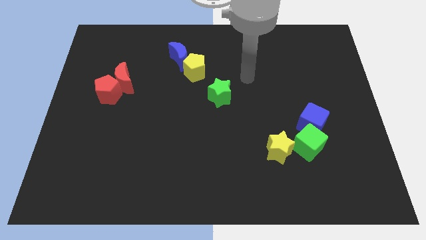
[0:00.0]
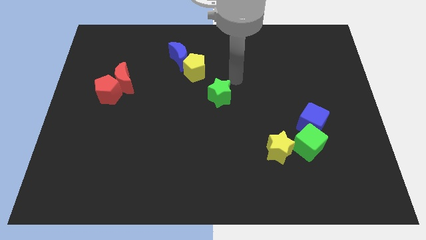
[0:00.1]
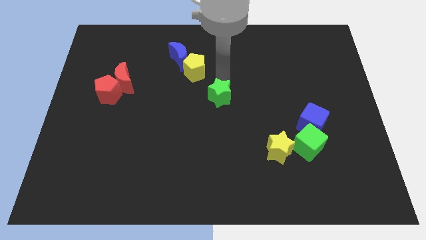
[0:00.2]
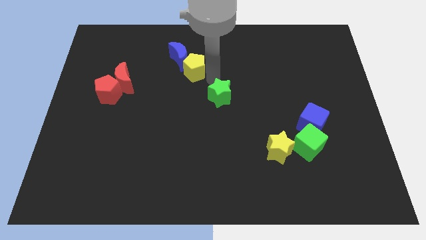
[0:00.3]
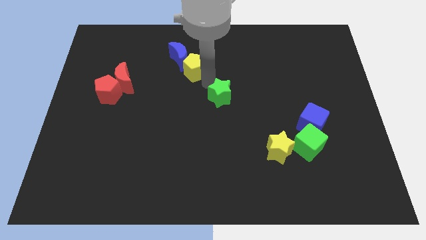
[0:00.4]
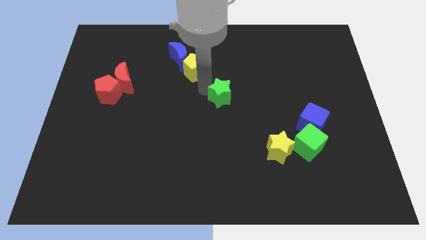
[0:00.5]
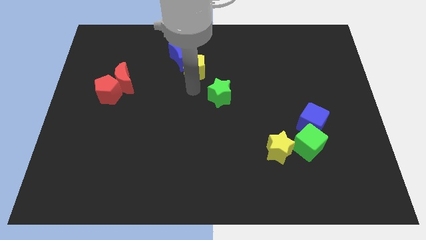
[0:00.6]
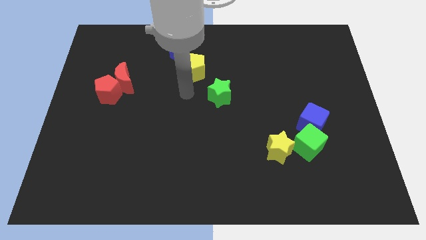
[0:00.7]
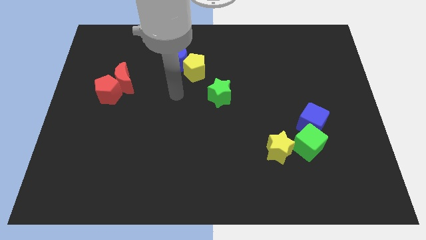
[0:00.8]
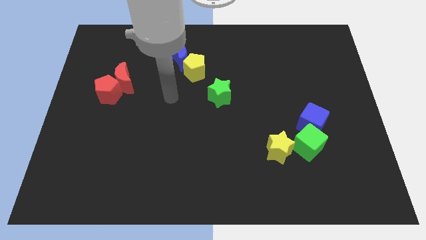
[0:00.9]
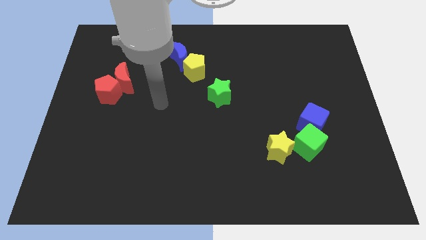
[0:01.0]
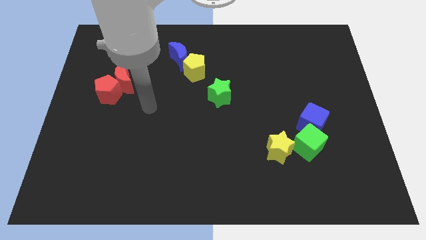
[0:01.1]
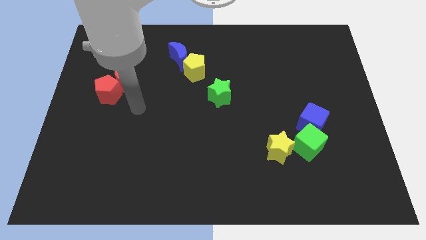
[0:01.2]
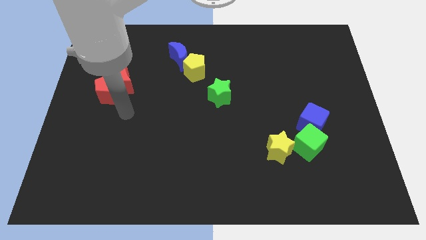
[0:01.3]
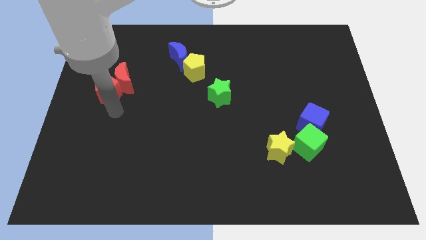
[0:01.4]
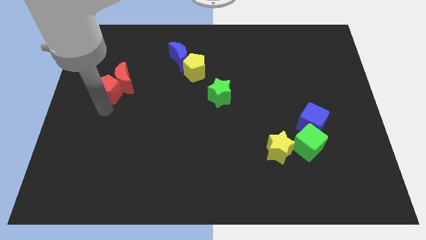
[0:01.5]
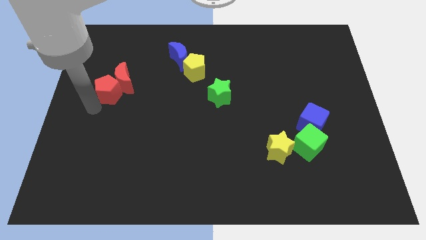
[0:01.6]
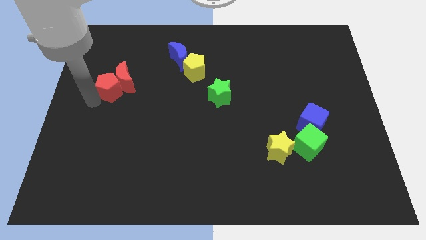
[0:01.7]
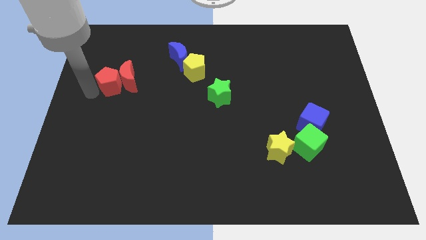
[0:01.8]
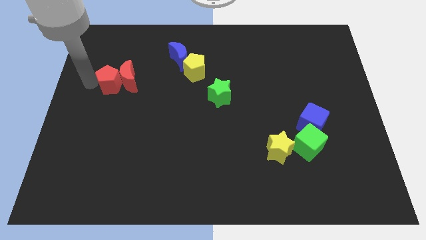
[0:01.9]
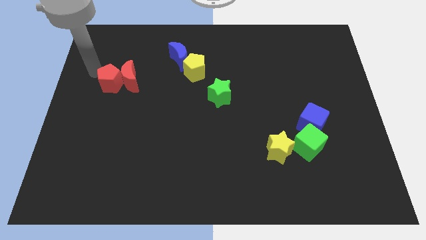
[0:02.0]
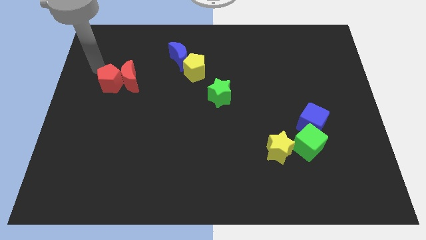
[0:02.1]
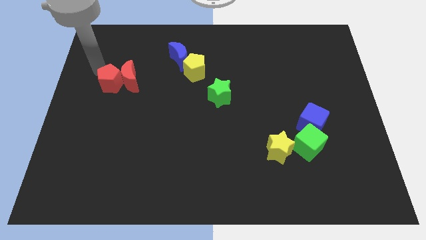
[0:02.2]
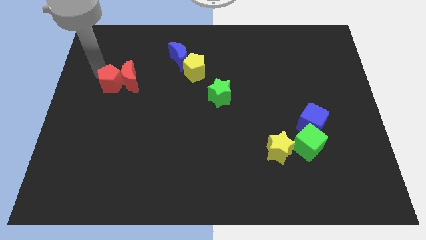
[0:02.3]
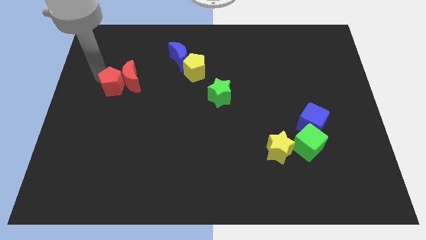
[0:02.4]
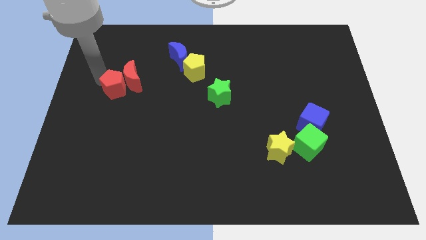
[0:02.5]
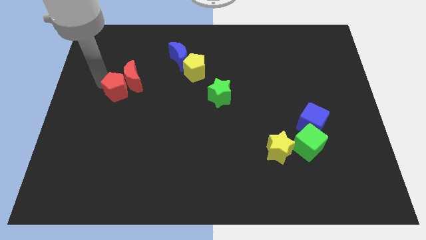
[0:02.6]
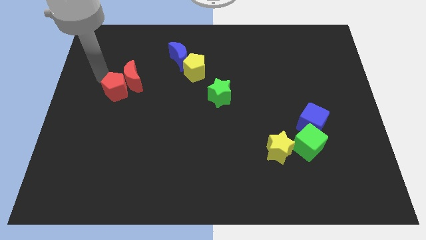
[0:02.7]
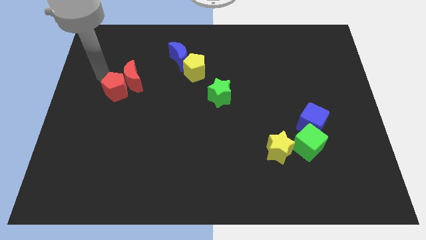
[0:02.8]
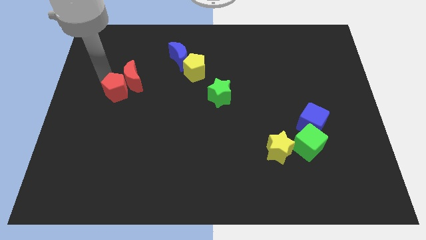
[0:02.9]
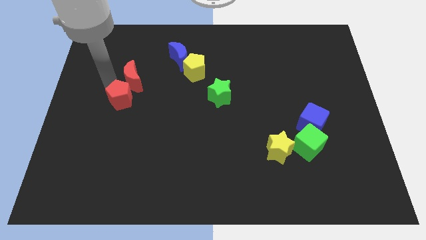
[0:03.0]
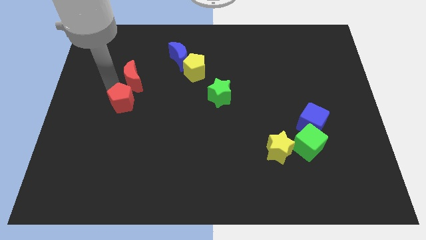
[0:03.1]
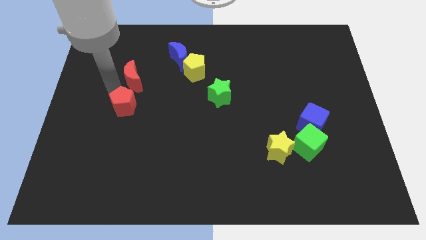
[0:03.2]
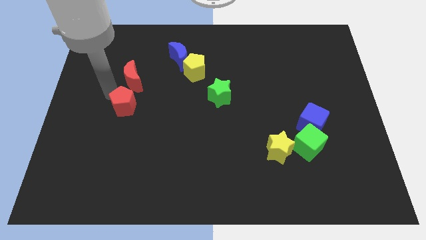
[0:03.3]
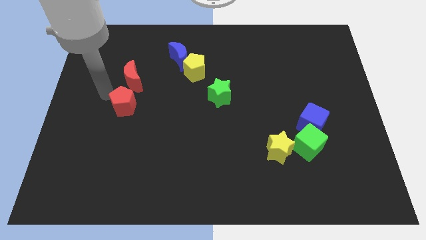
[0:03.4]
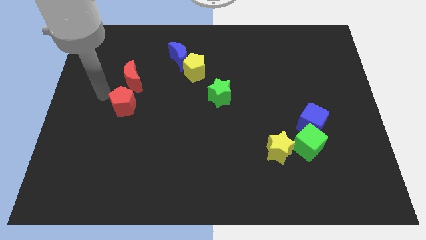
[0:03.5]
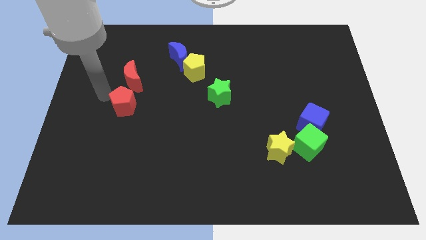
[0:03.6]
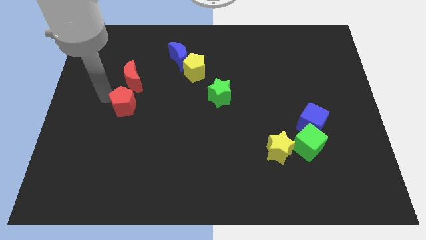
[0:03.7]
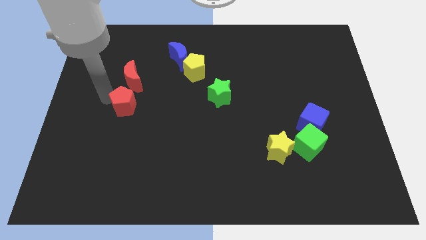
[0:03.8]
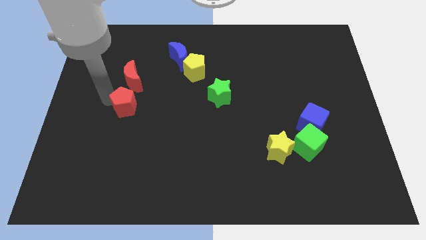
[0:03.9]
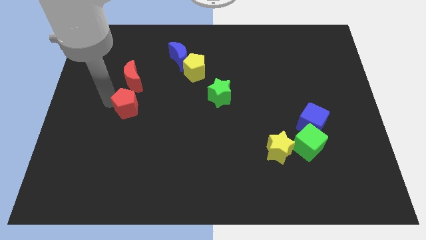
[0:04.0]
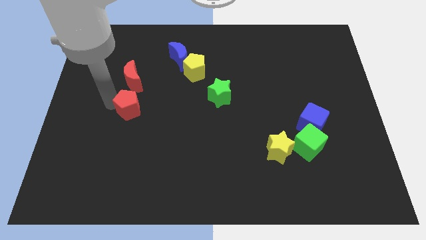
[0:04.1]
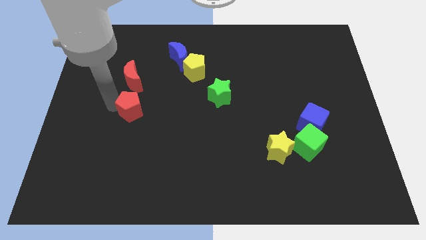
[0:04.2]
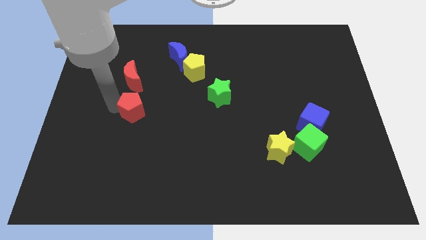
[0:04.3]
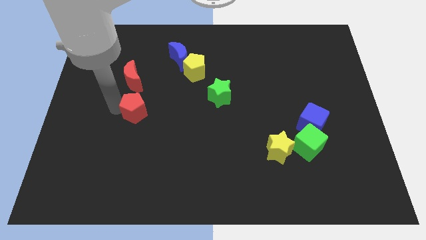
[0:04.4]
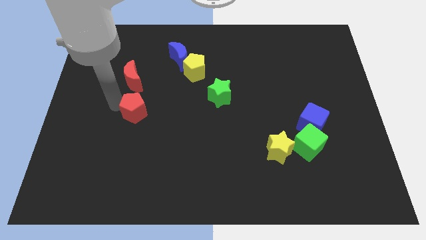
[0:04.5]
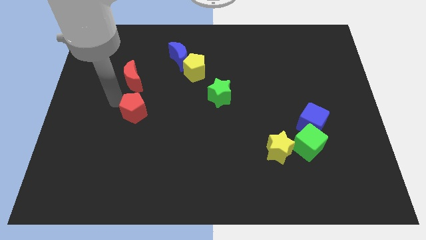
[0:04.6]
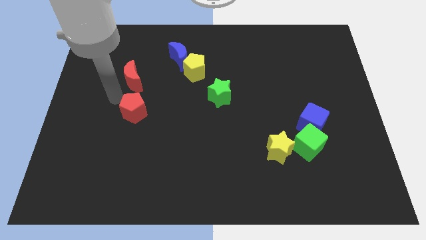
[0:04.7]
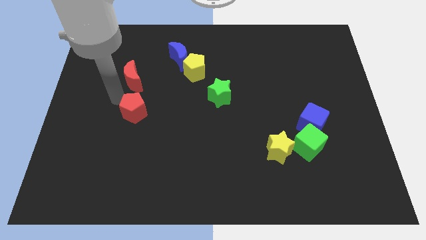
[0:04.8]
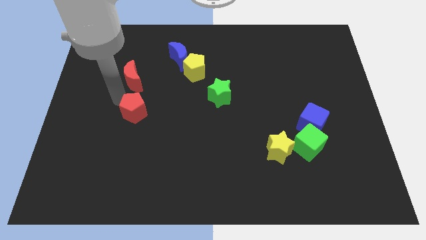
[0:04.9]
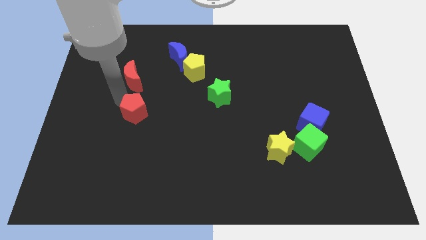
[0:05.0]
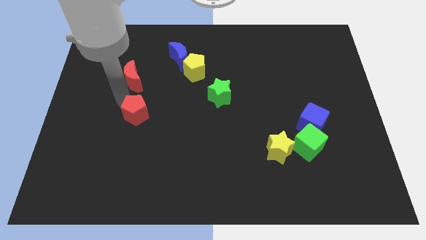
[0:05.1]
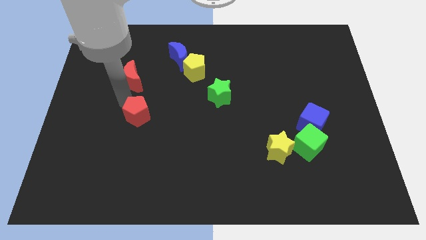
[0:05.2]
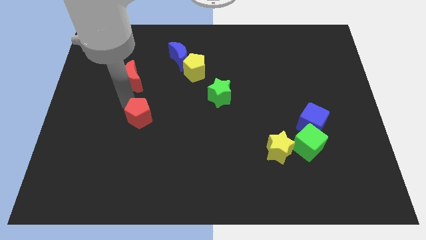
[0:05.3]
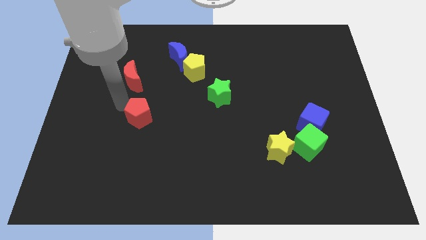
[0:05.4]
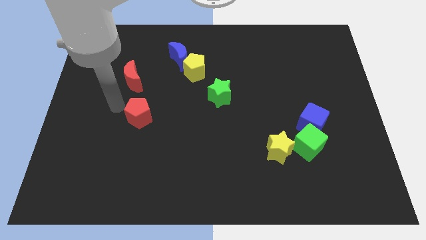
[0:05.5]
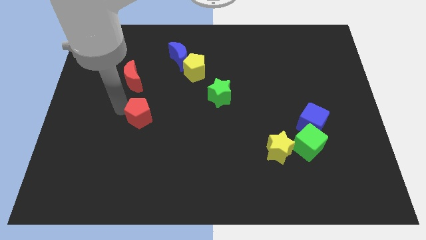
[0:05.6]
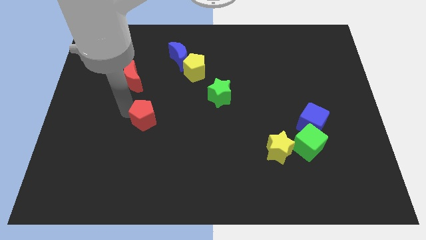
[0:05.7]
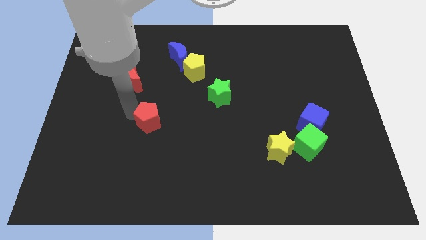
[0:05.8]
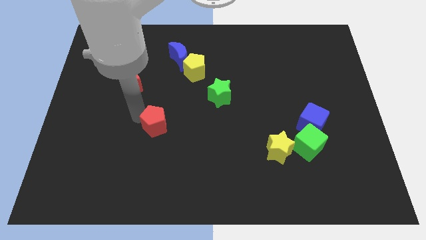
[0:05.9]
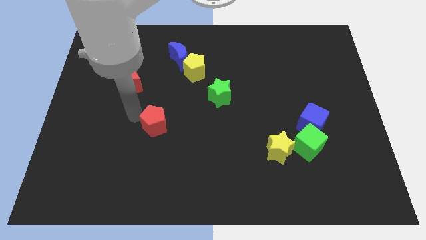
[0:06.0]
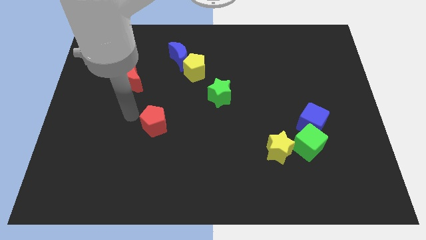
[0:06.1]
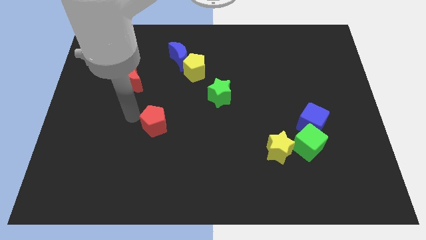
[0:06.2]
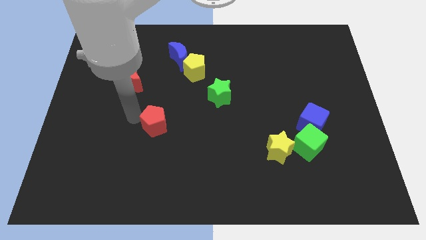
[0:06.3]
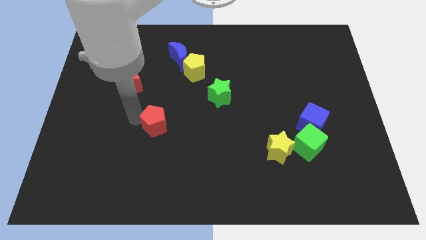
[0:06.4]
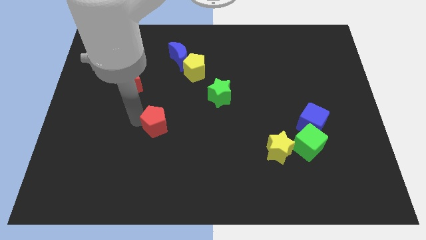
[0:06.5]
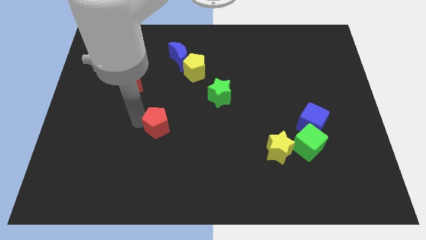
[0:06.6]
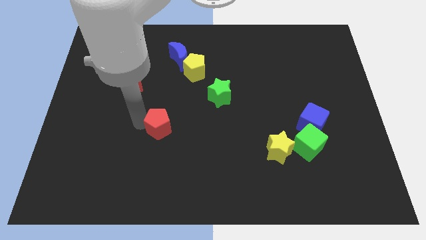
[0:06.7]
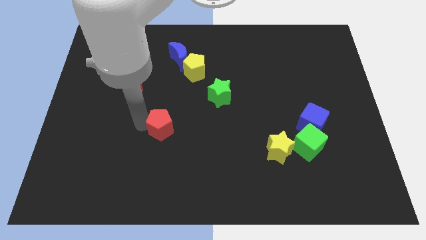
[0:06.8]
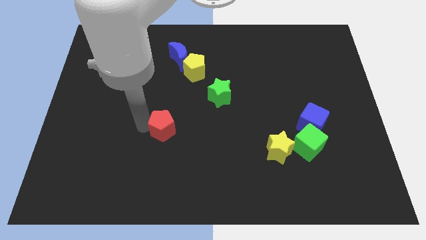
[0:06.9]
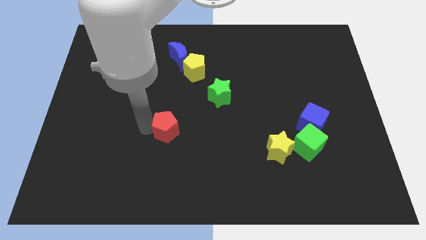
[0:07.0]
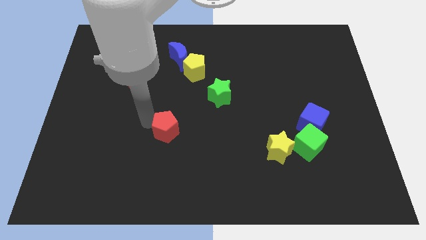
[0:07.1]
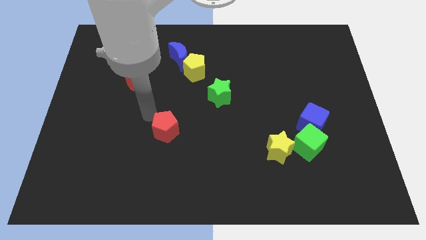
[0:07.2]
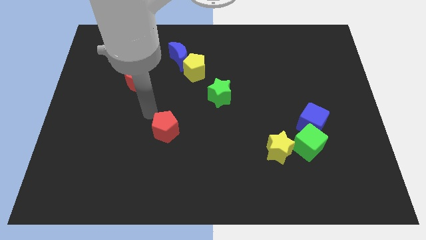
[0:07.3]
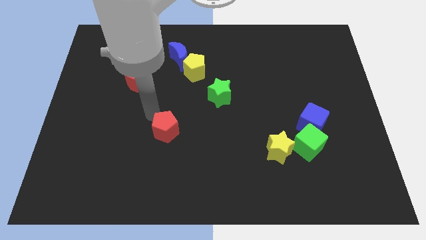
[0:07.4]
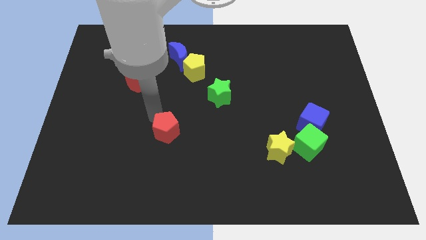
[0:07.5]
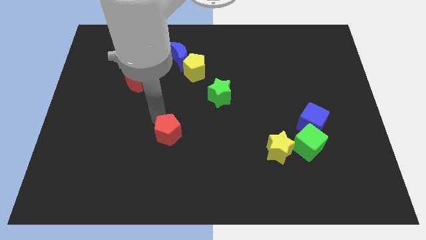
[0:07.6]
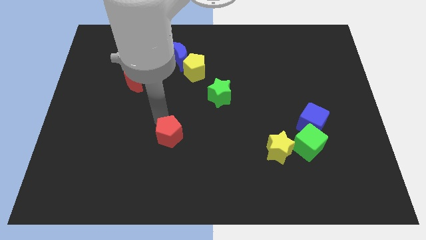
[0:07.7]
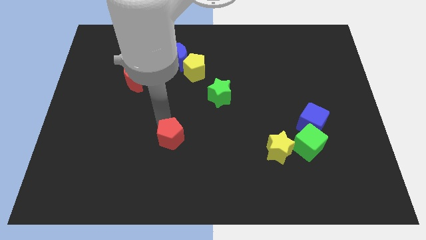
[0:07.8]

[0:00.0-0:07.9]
move the red pentagon diagonally down and to the right
